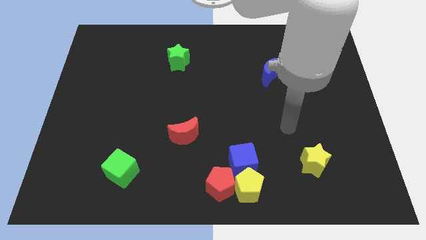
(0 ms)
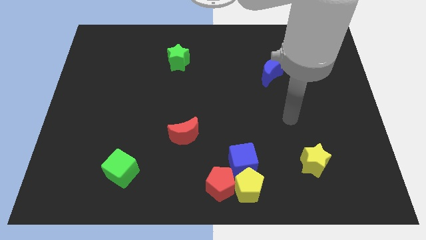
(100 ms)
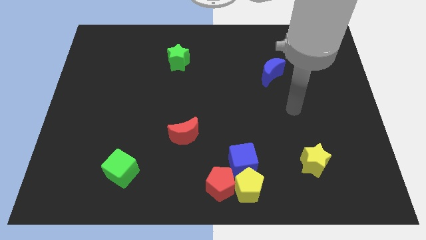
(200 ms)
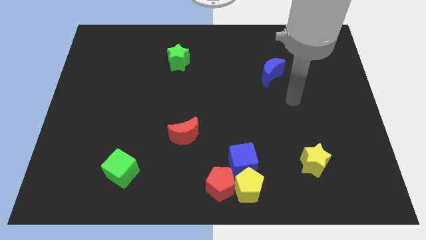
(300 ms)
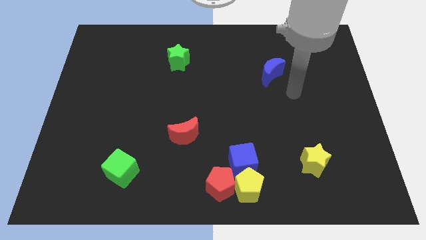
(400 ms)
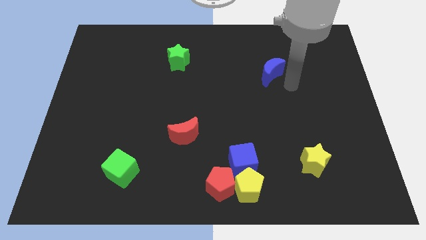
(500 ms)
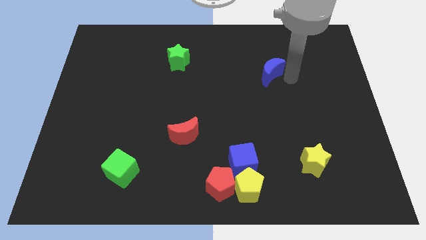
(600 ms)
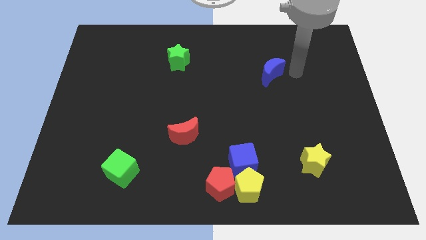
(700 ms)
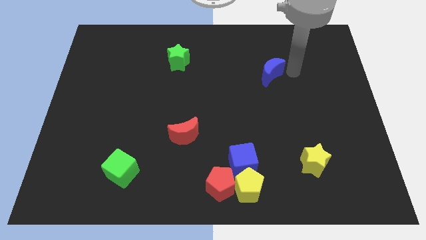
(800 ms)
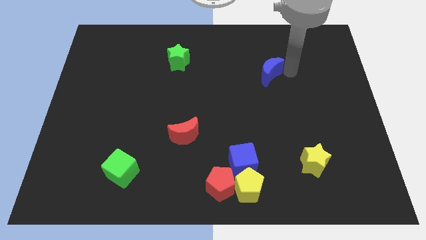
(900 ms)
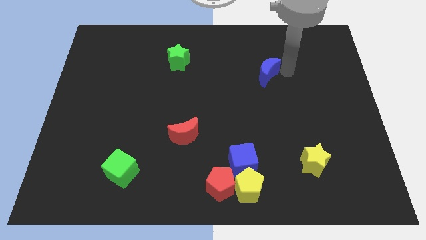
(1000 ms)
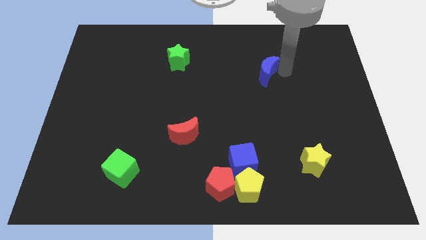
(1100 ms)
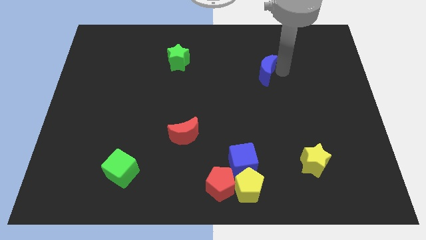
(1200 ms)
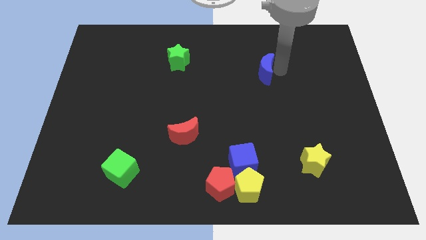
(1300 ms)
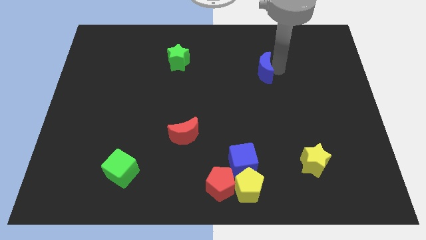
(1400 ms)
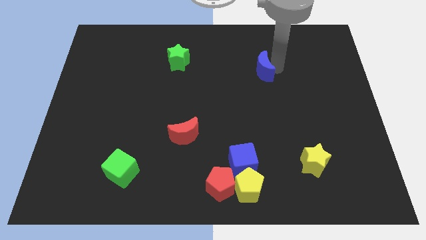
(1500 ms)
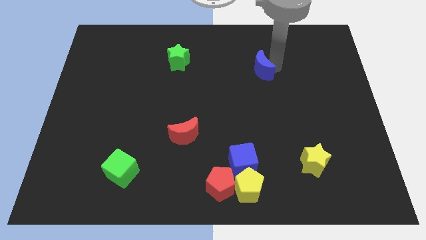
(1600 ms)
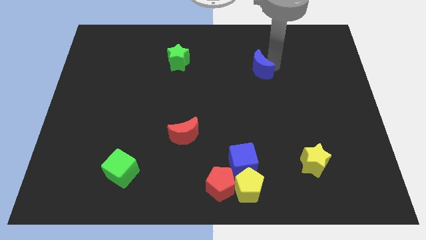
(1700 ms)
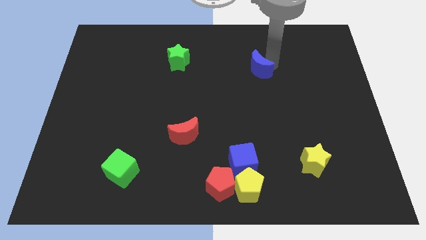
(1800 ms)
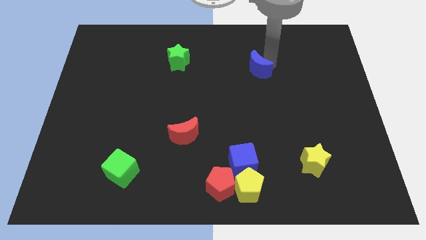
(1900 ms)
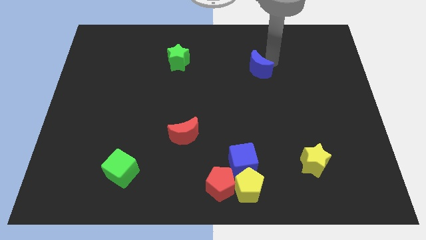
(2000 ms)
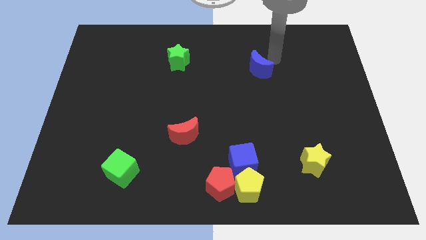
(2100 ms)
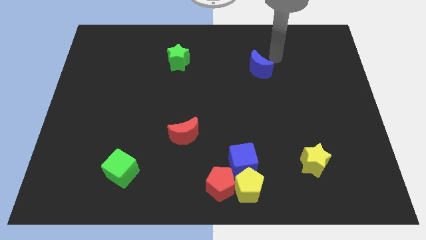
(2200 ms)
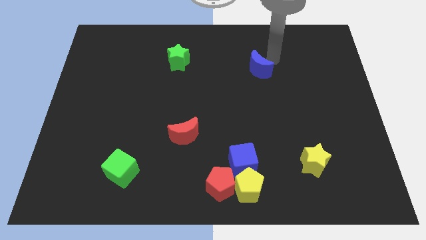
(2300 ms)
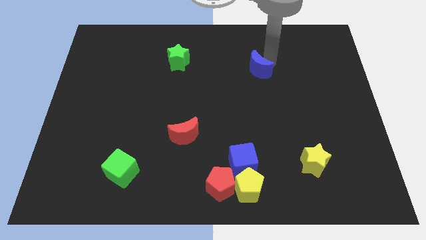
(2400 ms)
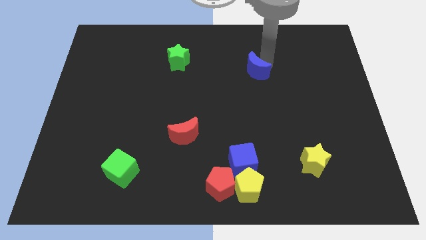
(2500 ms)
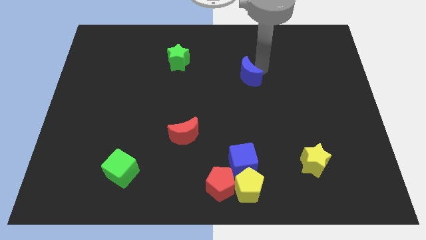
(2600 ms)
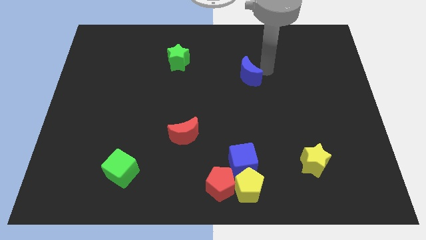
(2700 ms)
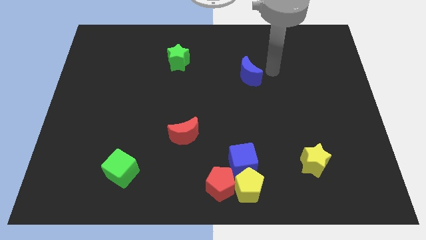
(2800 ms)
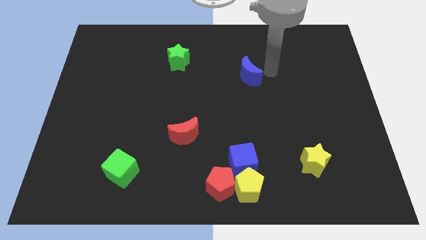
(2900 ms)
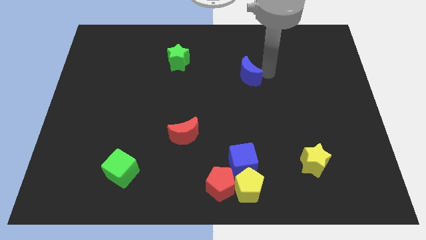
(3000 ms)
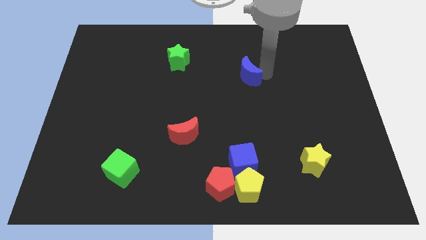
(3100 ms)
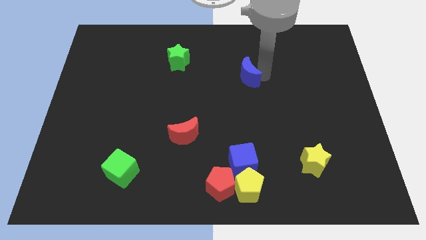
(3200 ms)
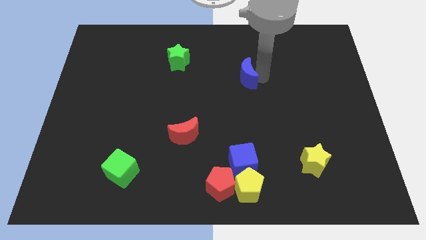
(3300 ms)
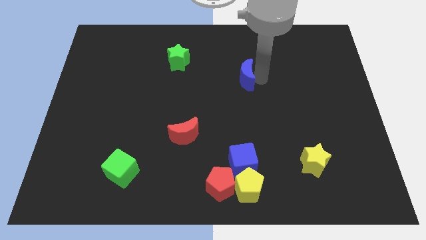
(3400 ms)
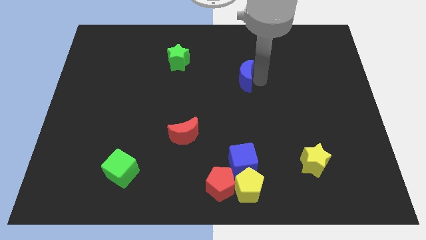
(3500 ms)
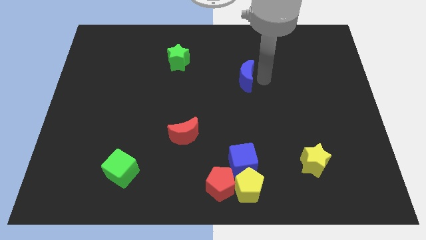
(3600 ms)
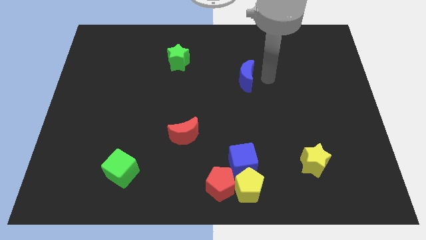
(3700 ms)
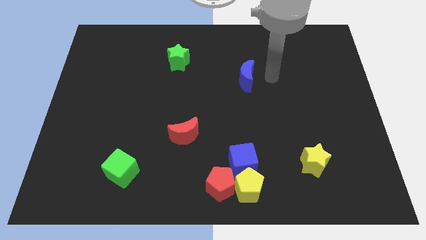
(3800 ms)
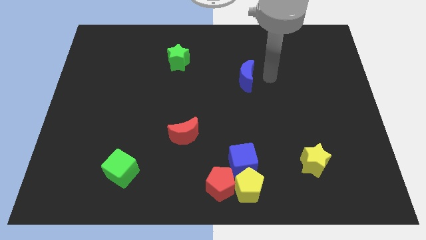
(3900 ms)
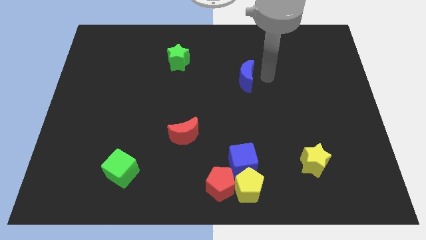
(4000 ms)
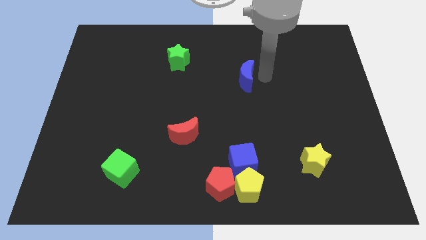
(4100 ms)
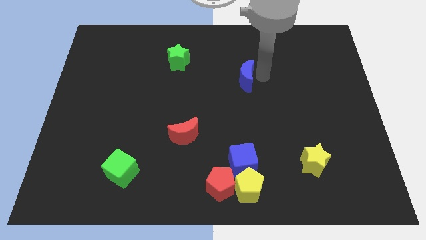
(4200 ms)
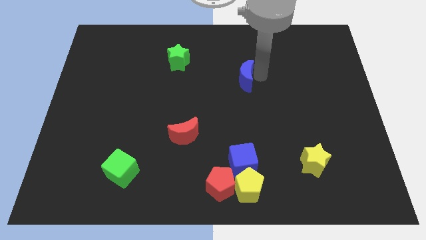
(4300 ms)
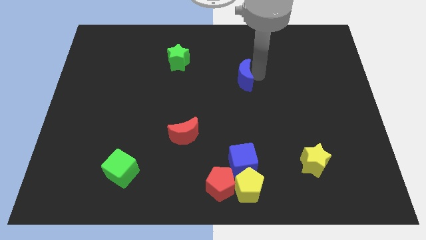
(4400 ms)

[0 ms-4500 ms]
slightly push the blue moon left

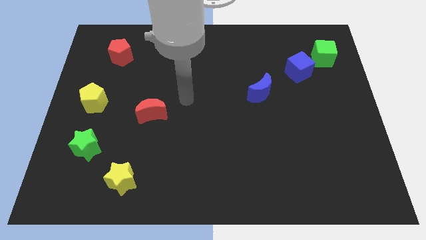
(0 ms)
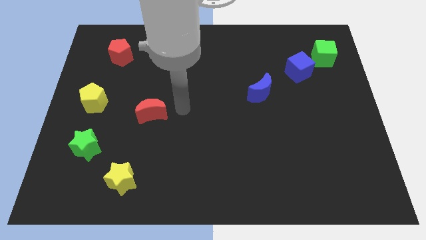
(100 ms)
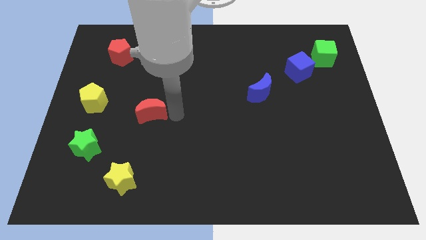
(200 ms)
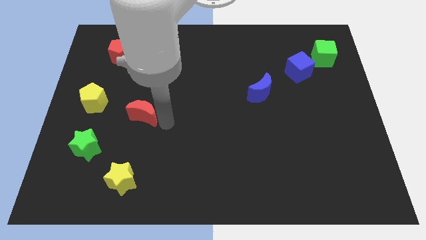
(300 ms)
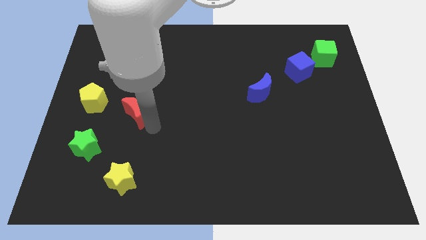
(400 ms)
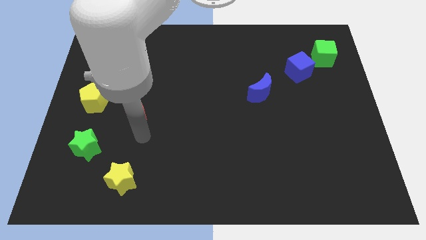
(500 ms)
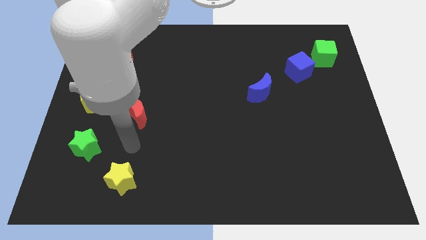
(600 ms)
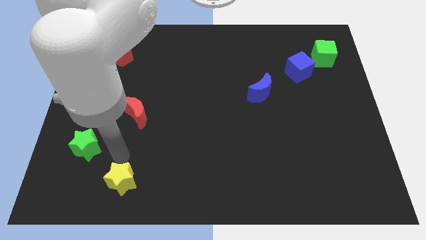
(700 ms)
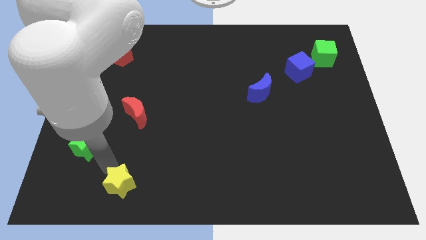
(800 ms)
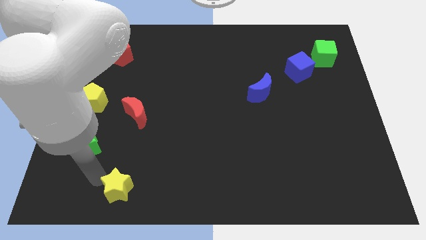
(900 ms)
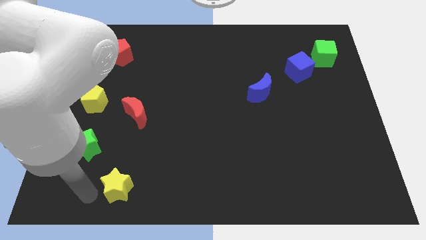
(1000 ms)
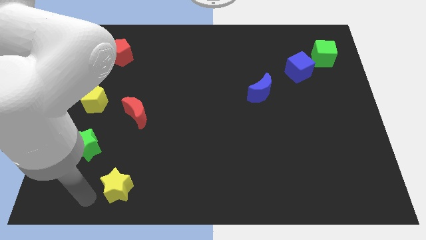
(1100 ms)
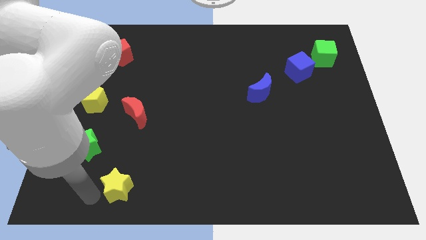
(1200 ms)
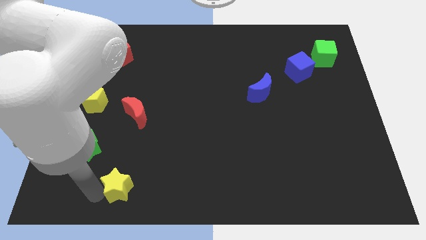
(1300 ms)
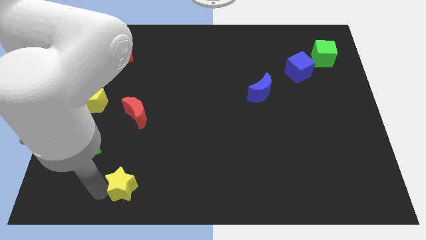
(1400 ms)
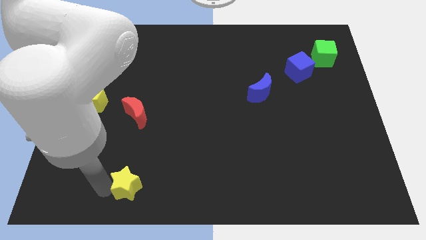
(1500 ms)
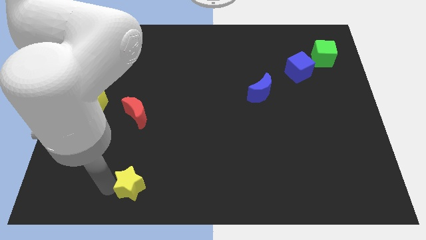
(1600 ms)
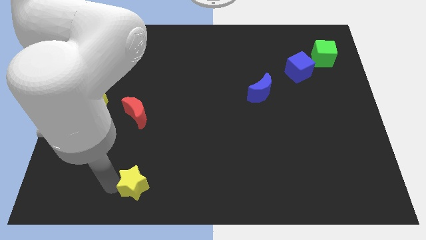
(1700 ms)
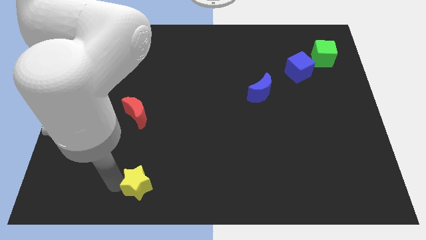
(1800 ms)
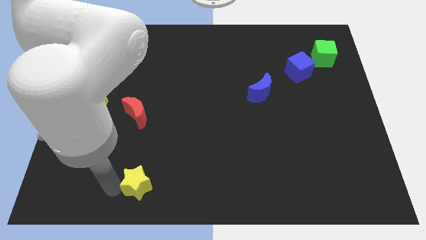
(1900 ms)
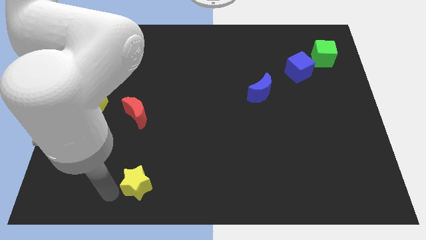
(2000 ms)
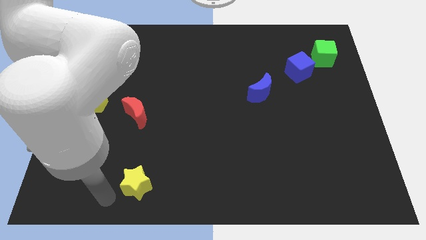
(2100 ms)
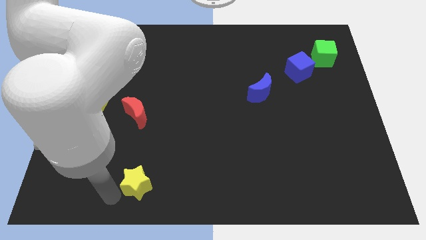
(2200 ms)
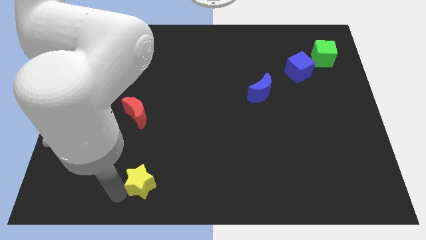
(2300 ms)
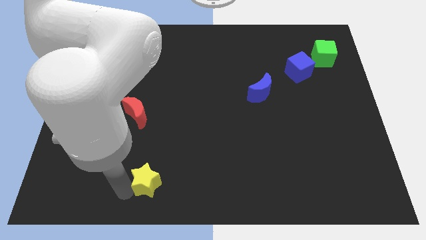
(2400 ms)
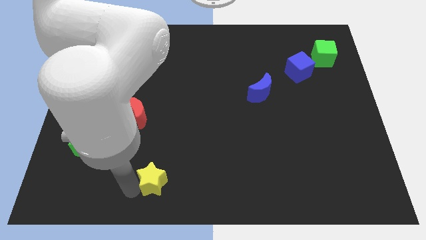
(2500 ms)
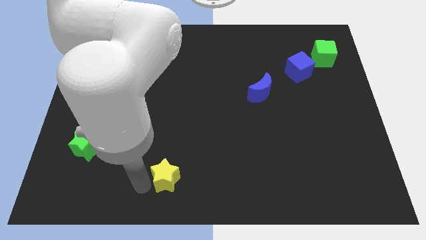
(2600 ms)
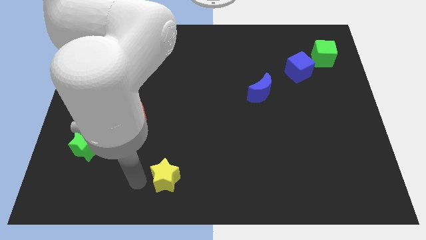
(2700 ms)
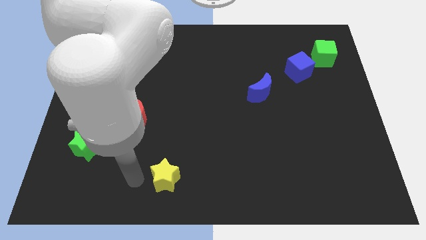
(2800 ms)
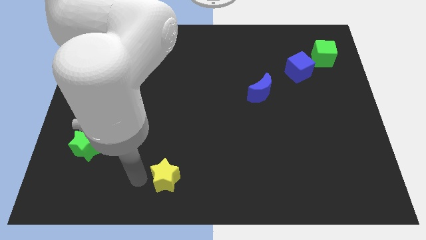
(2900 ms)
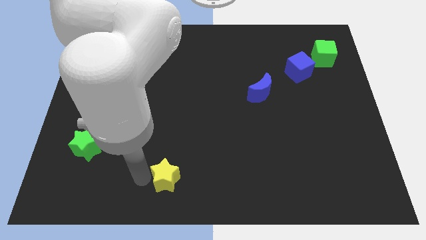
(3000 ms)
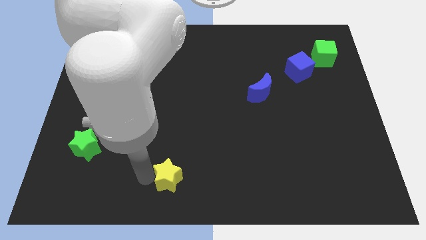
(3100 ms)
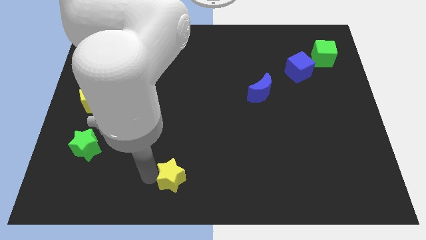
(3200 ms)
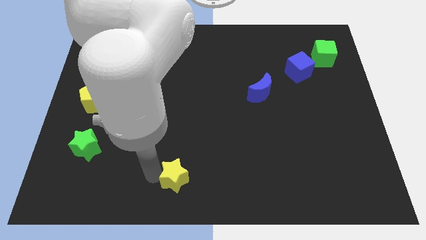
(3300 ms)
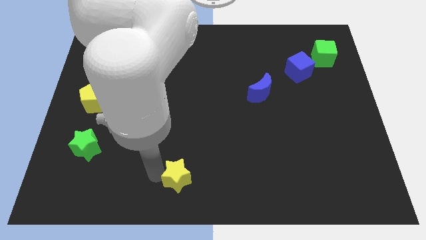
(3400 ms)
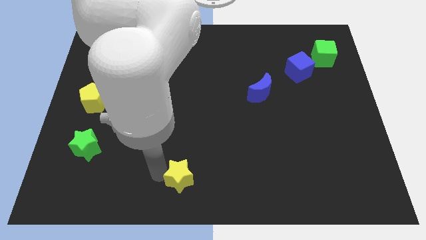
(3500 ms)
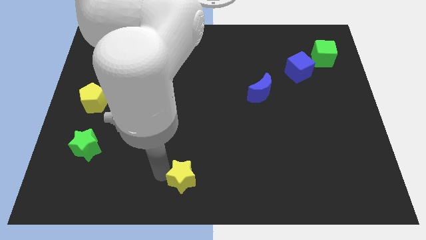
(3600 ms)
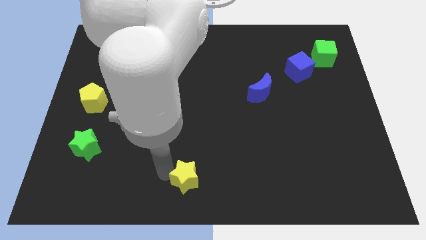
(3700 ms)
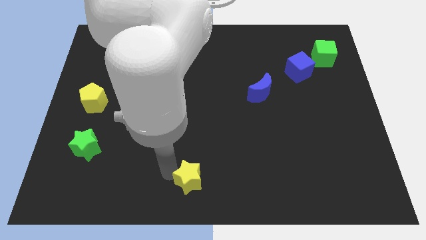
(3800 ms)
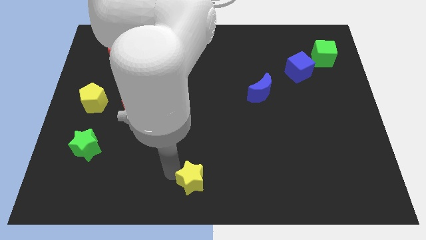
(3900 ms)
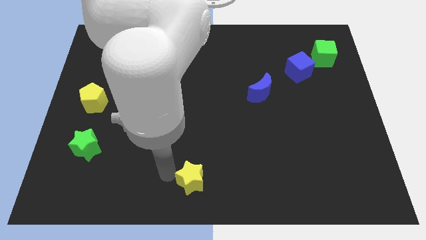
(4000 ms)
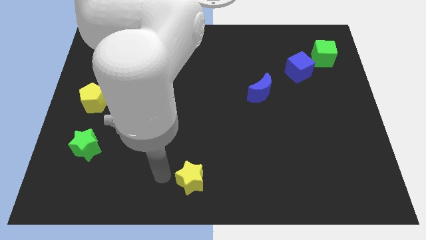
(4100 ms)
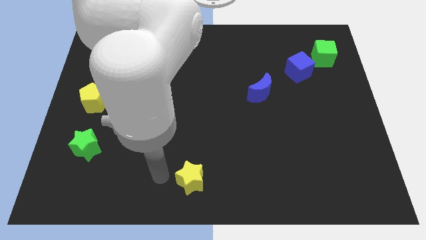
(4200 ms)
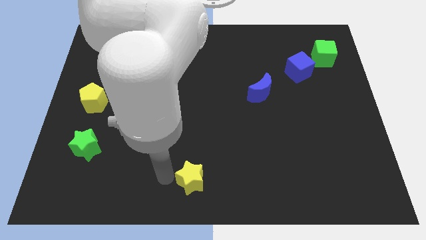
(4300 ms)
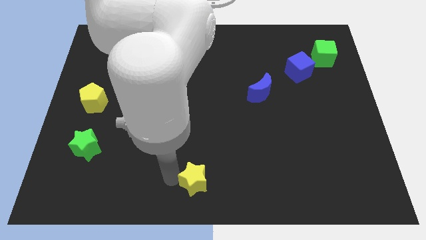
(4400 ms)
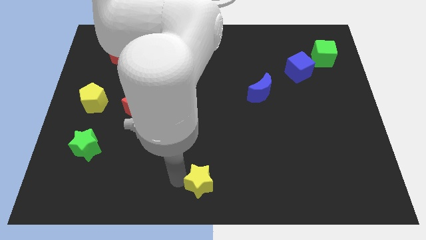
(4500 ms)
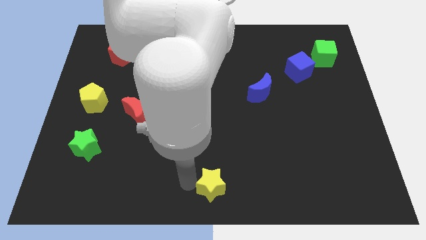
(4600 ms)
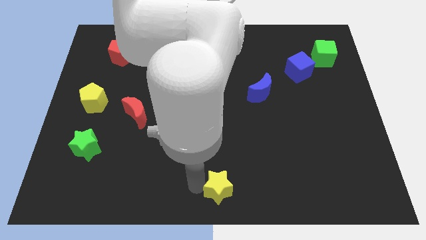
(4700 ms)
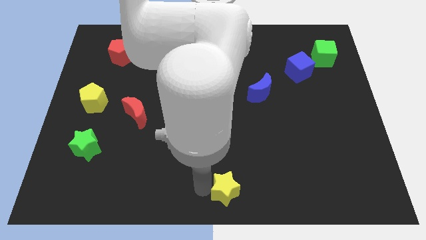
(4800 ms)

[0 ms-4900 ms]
push the yellow star to the right
